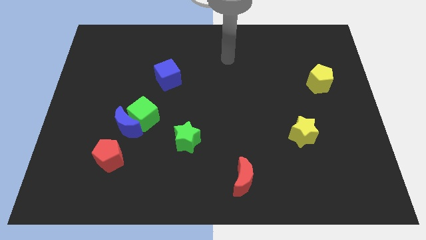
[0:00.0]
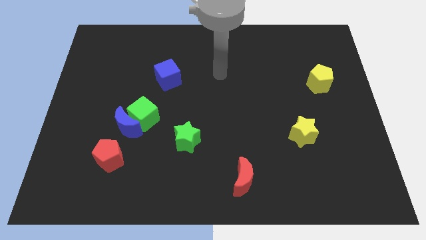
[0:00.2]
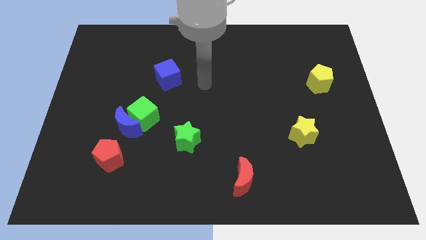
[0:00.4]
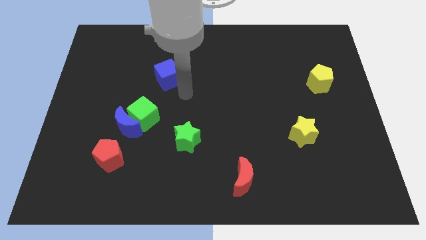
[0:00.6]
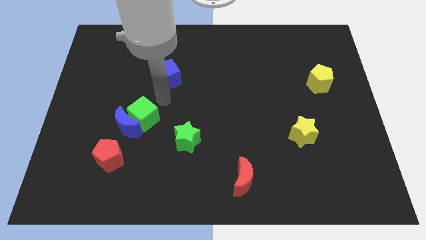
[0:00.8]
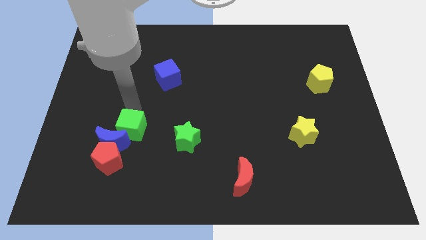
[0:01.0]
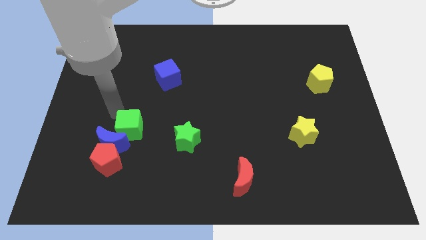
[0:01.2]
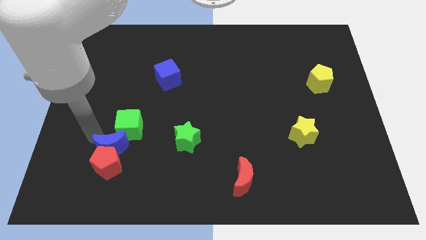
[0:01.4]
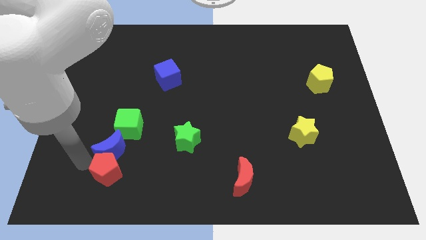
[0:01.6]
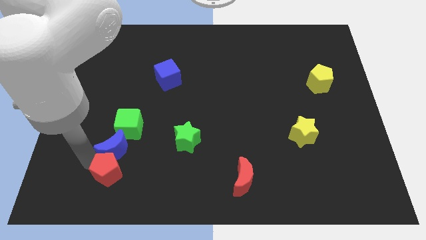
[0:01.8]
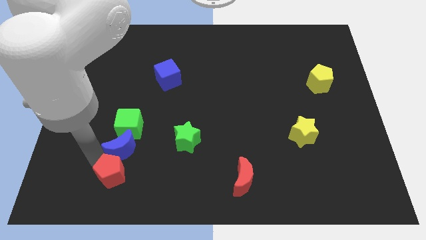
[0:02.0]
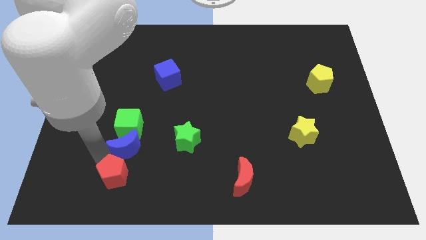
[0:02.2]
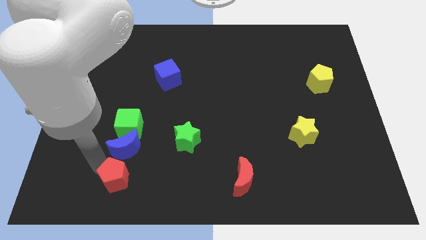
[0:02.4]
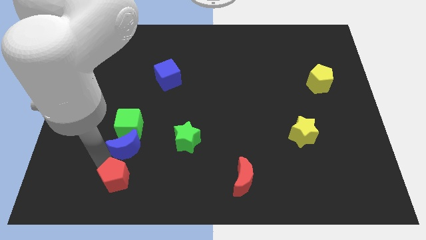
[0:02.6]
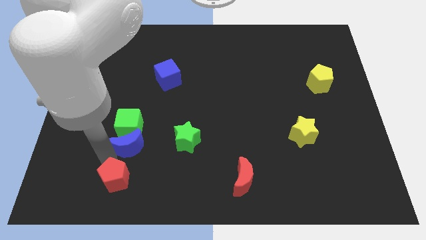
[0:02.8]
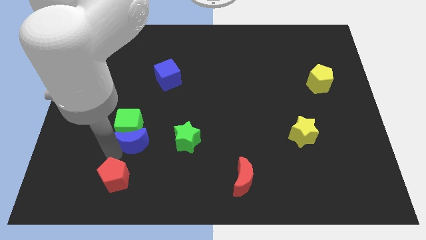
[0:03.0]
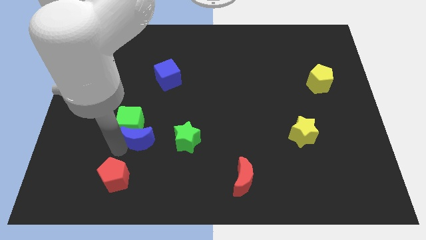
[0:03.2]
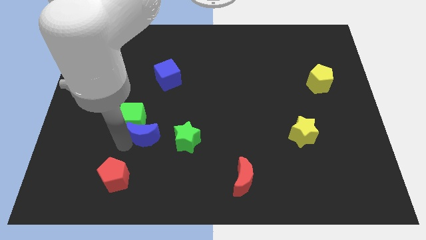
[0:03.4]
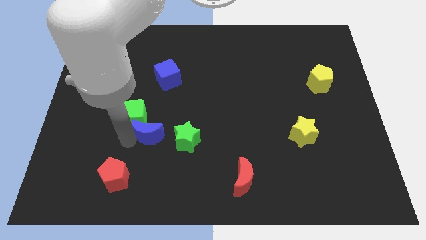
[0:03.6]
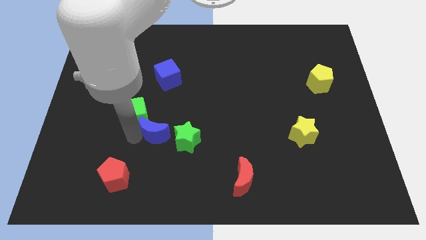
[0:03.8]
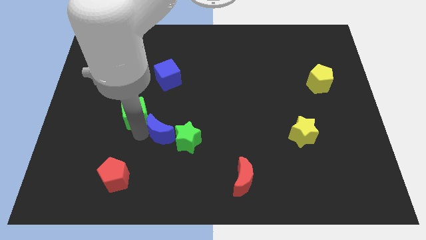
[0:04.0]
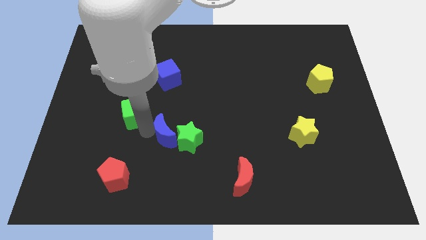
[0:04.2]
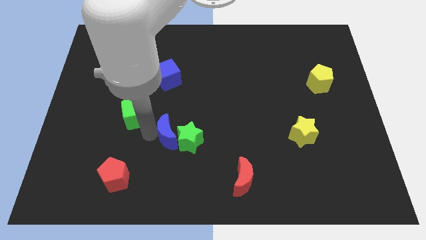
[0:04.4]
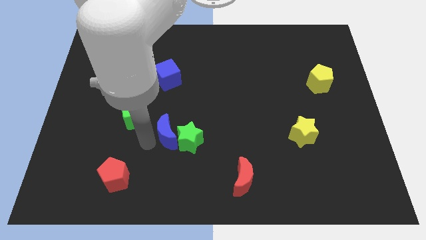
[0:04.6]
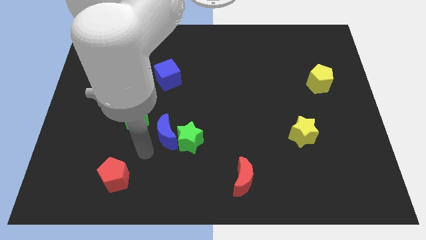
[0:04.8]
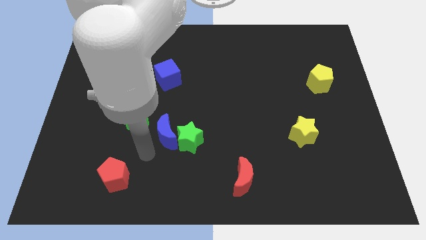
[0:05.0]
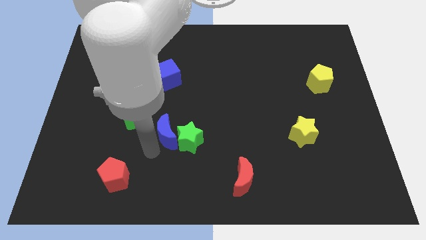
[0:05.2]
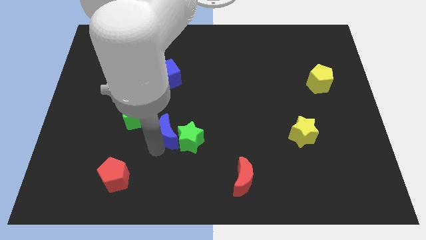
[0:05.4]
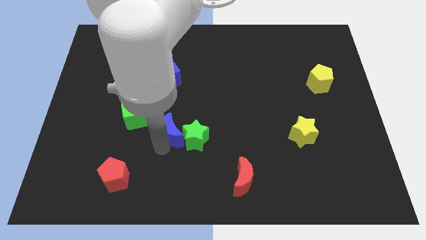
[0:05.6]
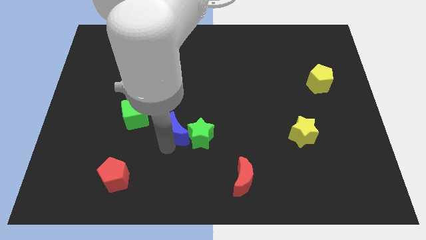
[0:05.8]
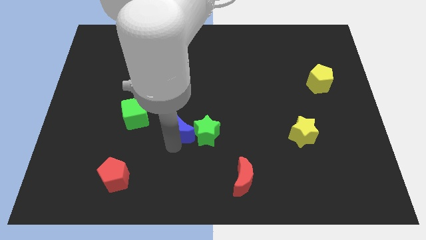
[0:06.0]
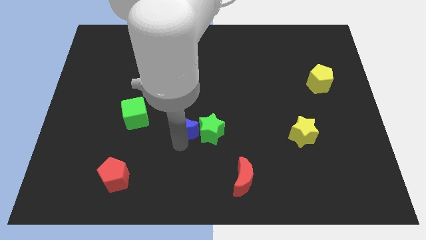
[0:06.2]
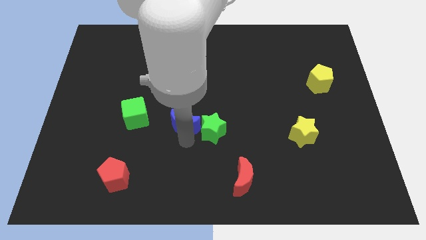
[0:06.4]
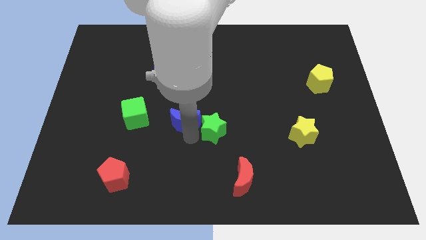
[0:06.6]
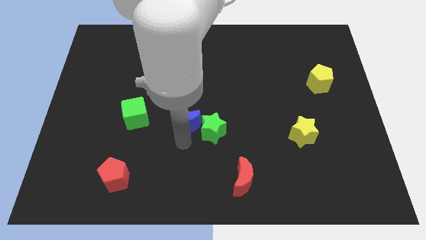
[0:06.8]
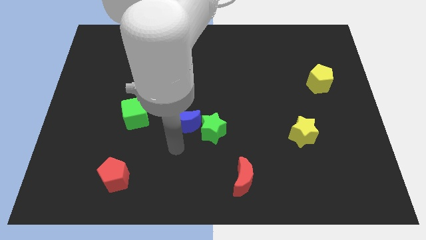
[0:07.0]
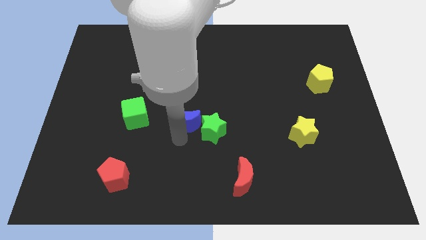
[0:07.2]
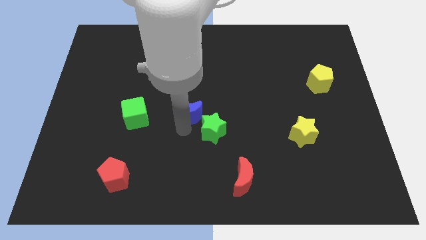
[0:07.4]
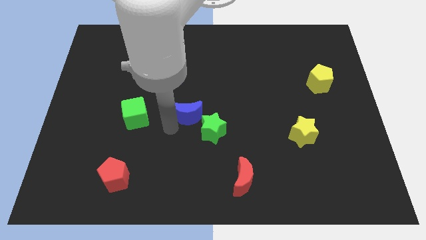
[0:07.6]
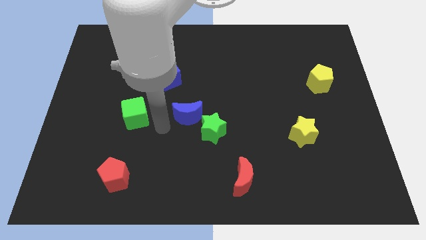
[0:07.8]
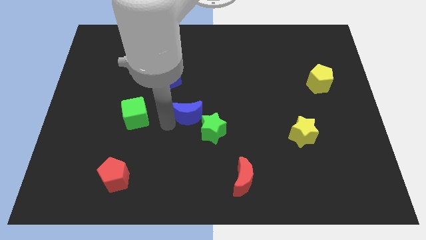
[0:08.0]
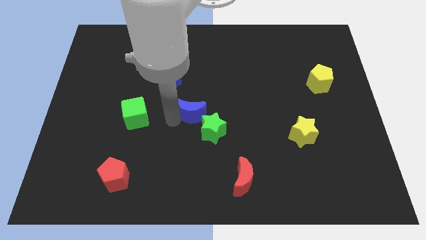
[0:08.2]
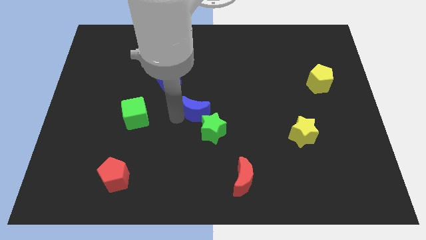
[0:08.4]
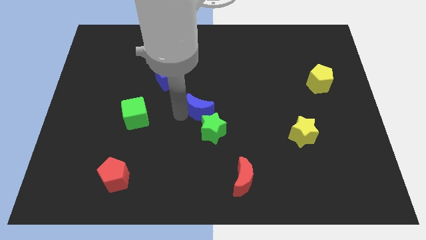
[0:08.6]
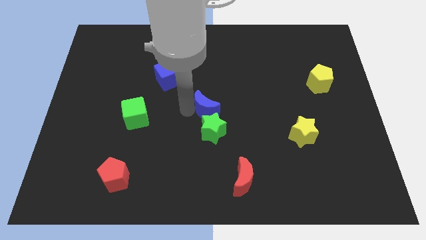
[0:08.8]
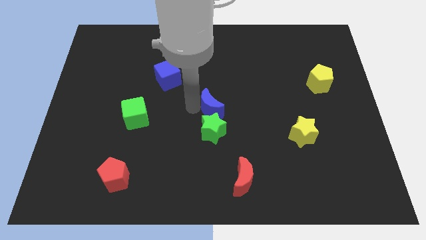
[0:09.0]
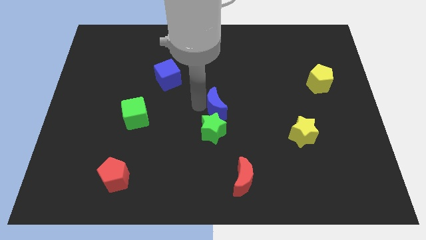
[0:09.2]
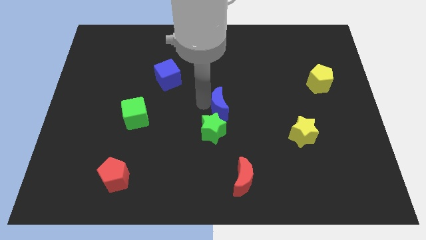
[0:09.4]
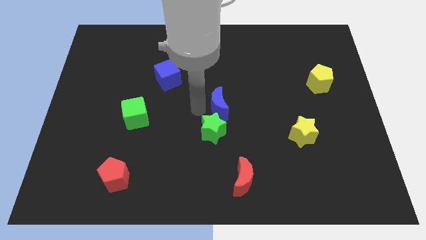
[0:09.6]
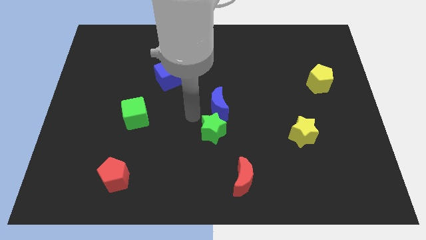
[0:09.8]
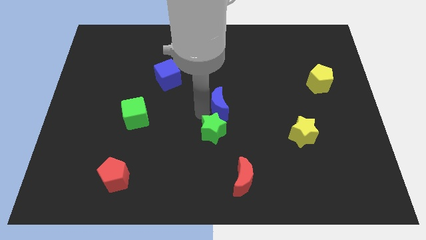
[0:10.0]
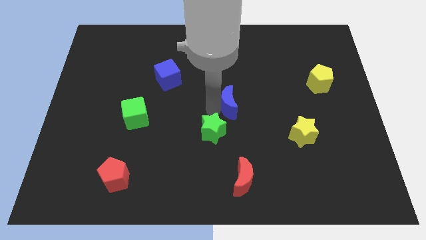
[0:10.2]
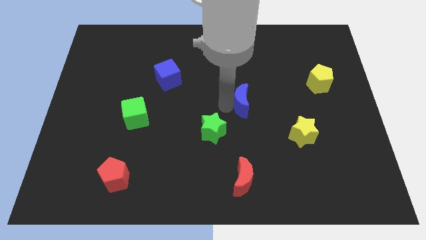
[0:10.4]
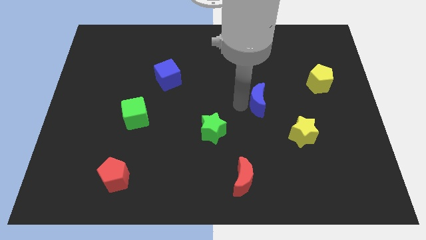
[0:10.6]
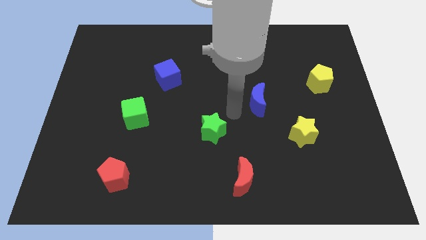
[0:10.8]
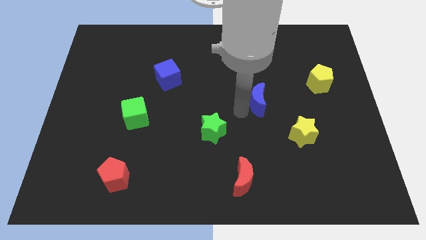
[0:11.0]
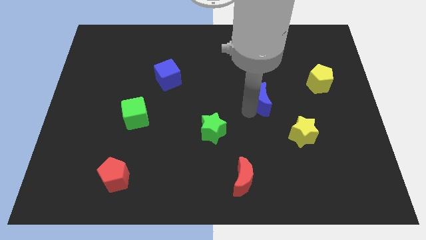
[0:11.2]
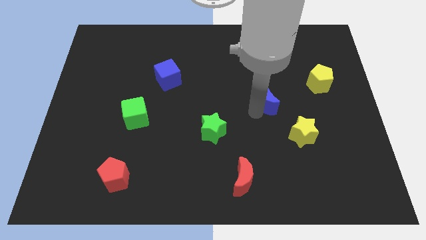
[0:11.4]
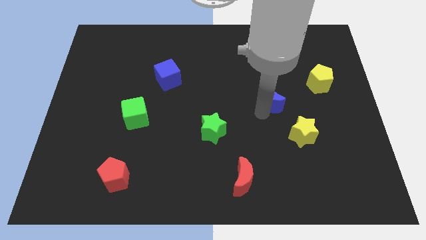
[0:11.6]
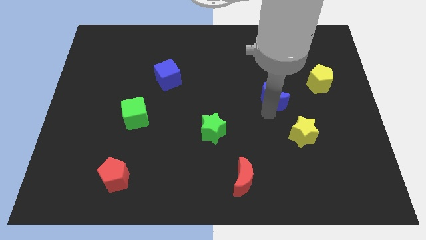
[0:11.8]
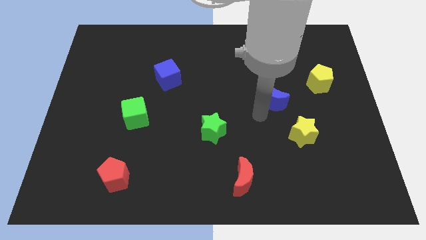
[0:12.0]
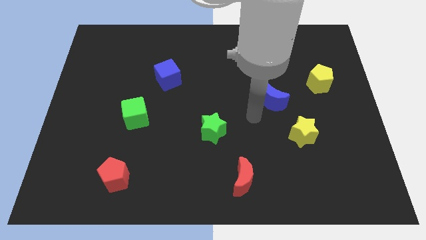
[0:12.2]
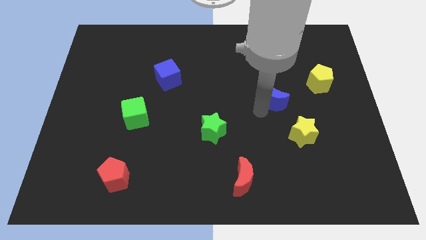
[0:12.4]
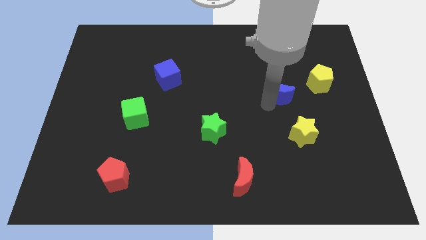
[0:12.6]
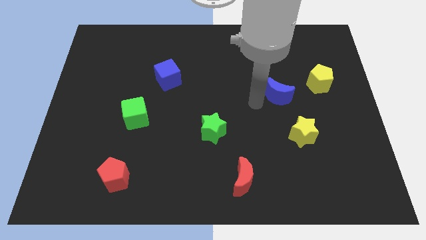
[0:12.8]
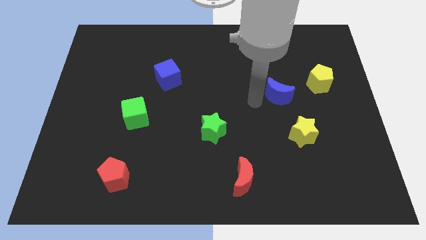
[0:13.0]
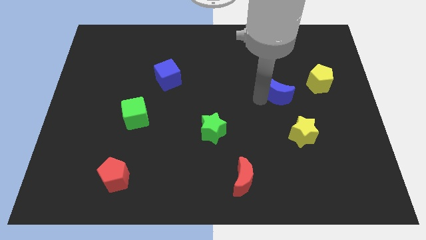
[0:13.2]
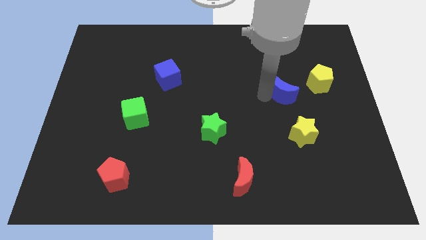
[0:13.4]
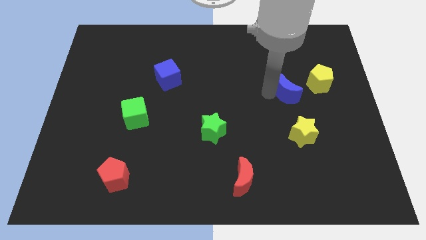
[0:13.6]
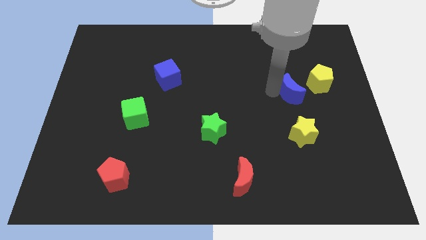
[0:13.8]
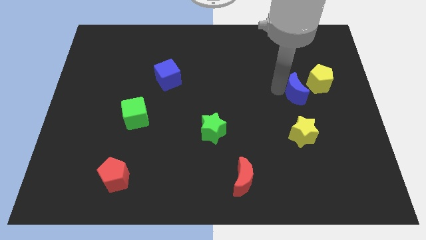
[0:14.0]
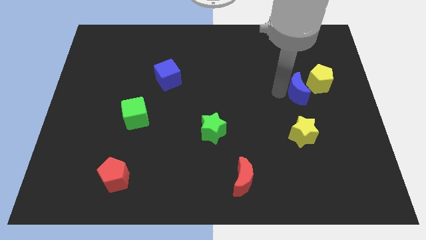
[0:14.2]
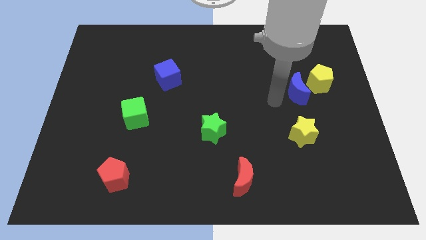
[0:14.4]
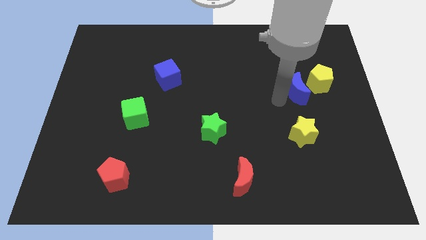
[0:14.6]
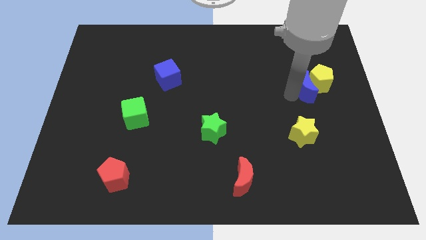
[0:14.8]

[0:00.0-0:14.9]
put the blue moon to the yellow pentagon
